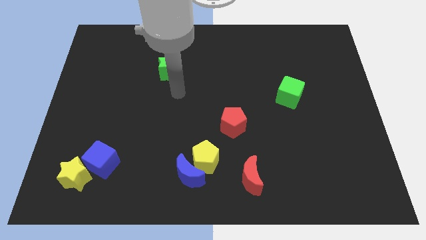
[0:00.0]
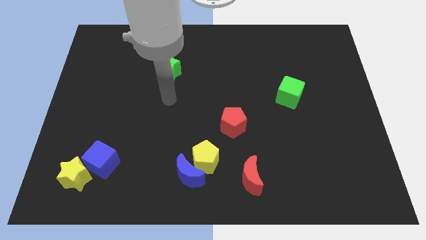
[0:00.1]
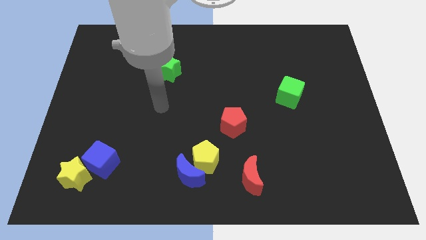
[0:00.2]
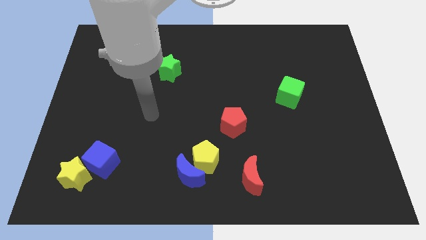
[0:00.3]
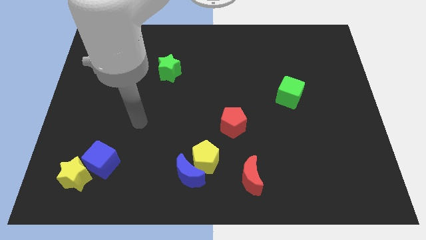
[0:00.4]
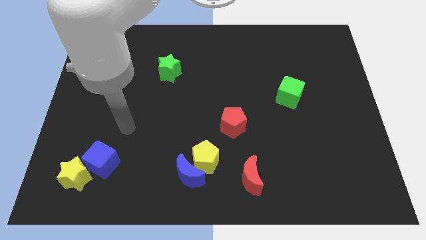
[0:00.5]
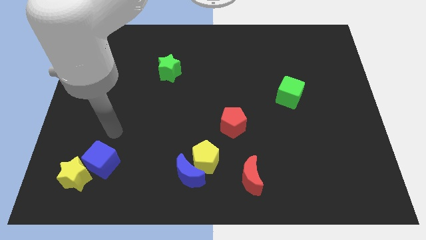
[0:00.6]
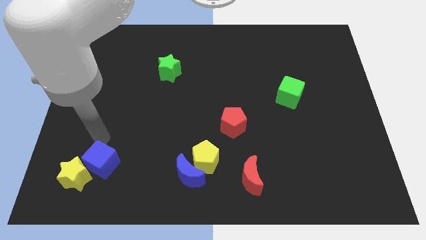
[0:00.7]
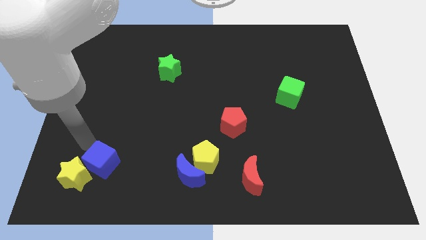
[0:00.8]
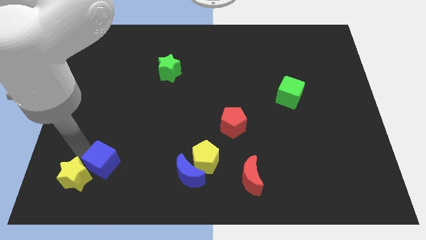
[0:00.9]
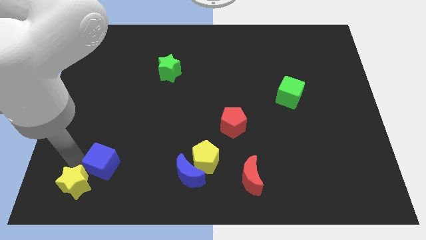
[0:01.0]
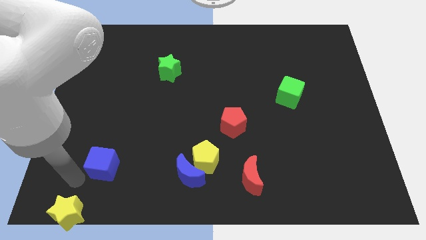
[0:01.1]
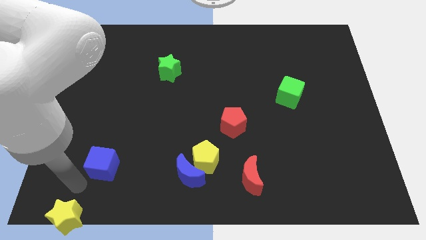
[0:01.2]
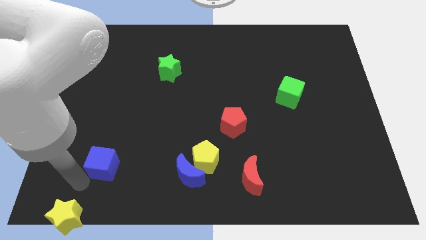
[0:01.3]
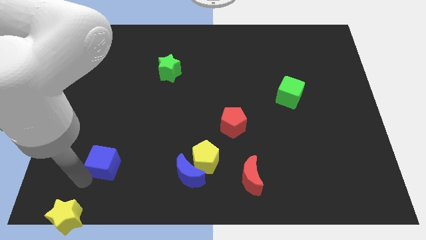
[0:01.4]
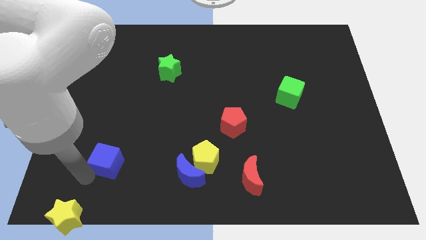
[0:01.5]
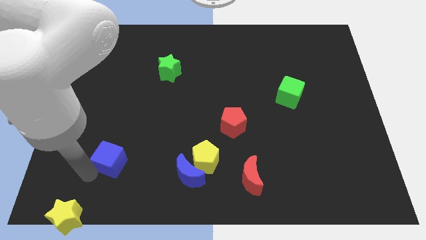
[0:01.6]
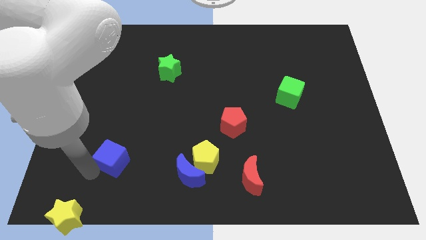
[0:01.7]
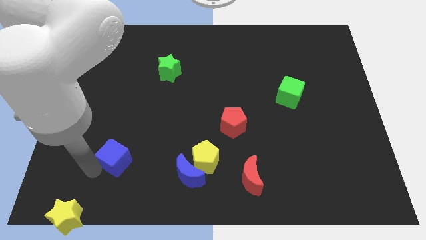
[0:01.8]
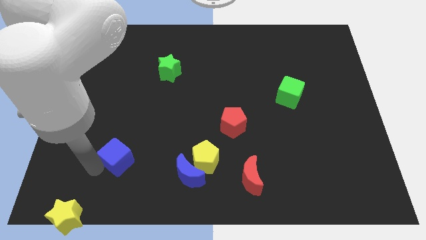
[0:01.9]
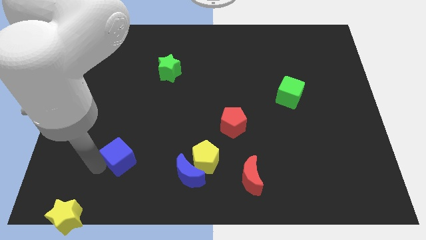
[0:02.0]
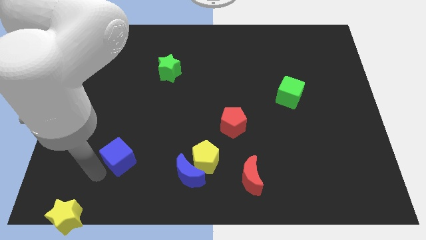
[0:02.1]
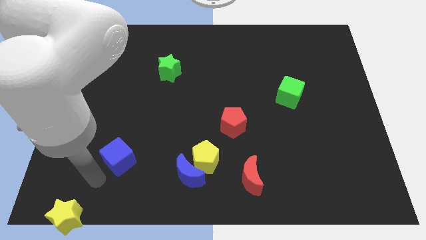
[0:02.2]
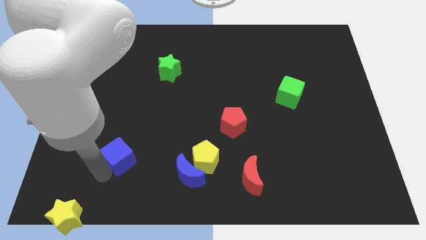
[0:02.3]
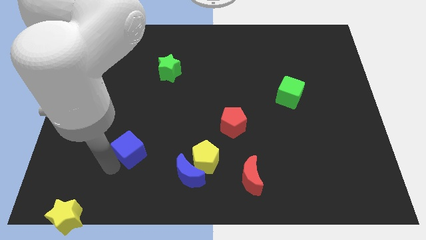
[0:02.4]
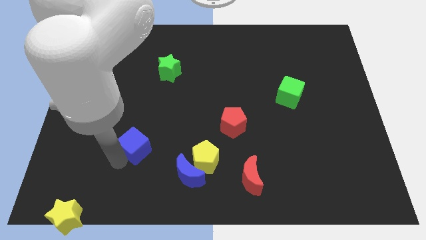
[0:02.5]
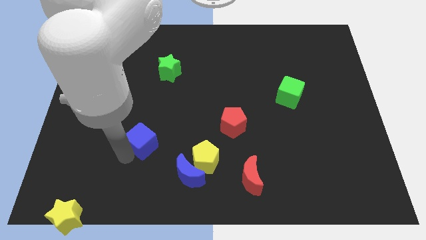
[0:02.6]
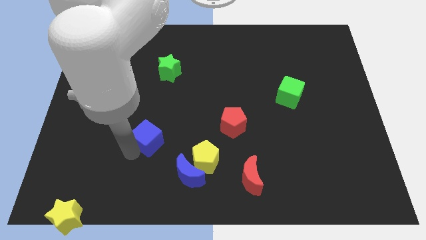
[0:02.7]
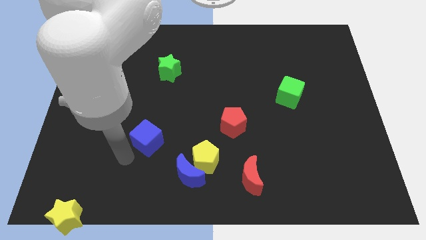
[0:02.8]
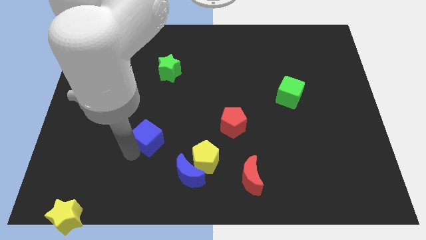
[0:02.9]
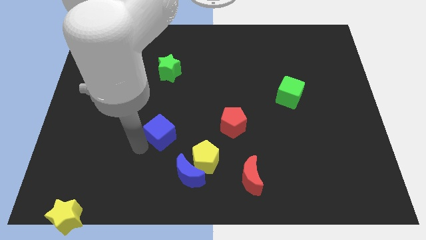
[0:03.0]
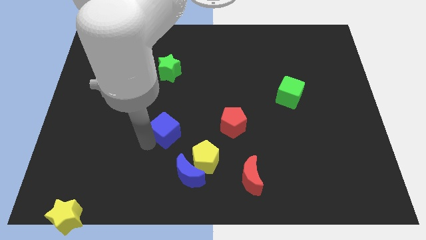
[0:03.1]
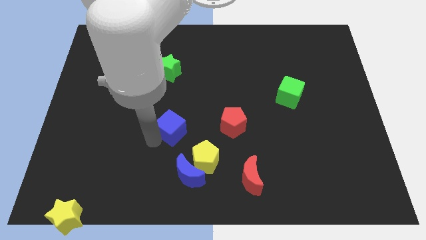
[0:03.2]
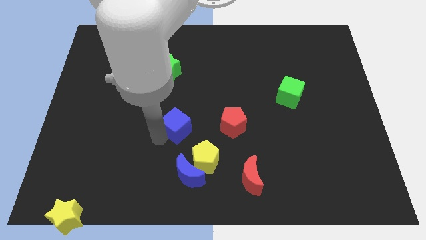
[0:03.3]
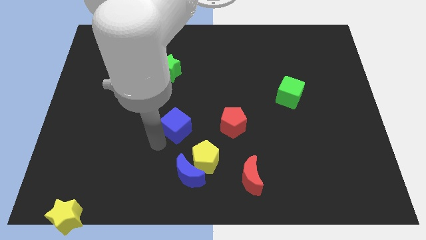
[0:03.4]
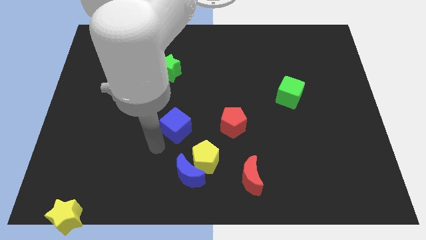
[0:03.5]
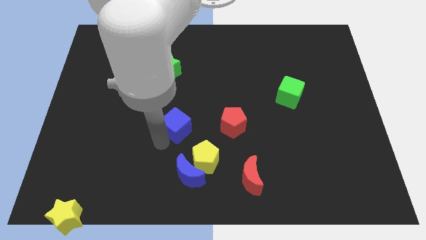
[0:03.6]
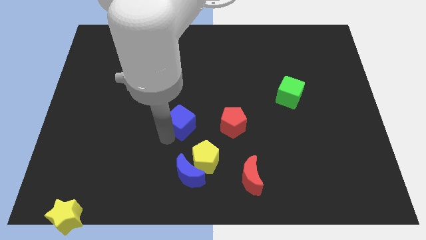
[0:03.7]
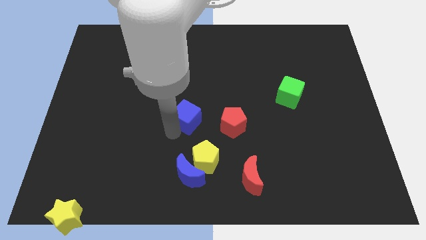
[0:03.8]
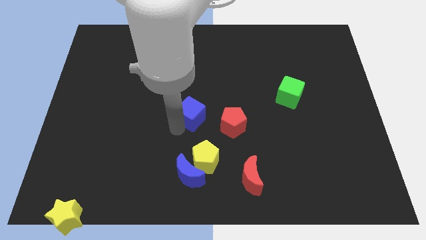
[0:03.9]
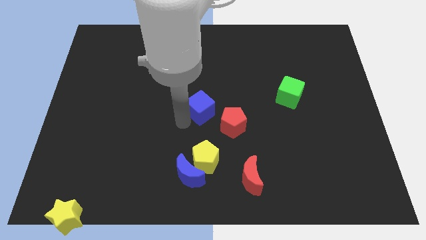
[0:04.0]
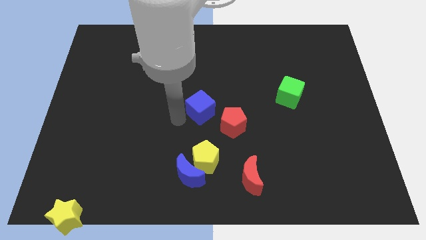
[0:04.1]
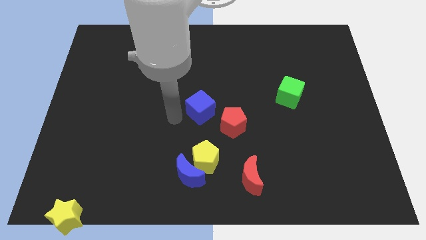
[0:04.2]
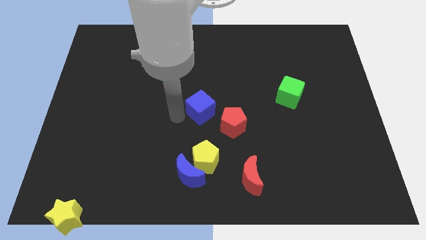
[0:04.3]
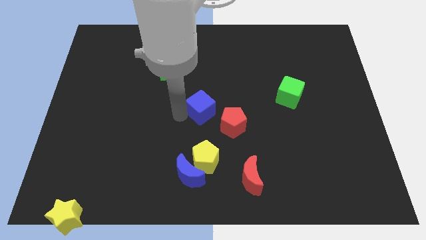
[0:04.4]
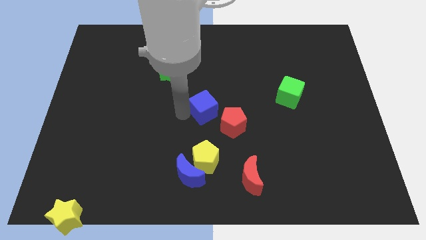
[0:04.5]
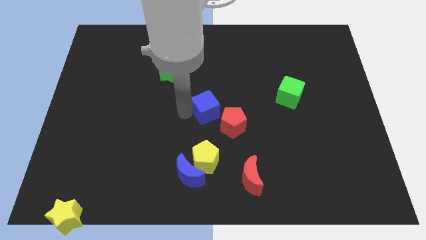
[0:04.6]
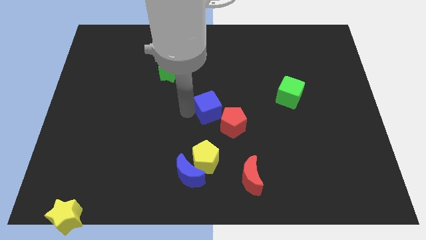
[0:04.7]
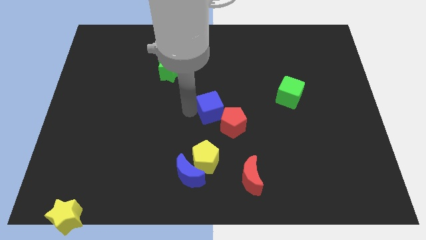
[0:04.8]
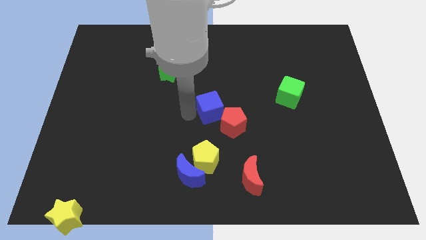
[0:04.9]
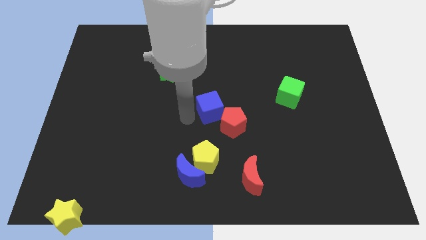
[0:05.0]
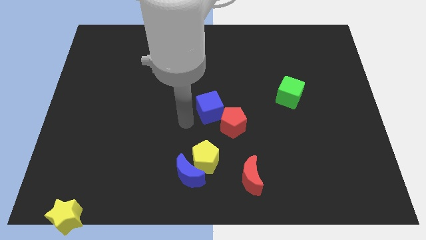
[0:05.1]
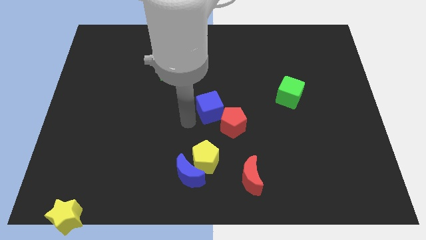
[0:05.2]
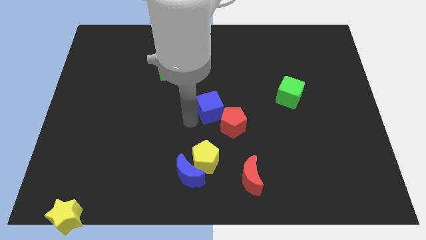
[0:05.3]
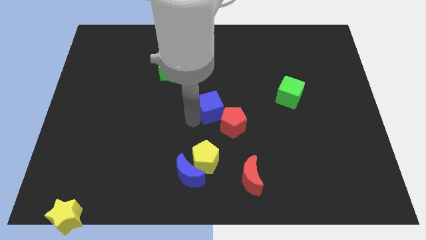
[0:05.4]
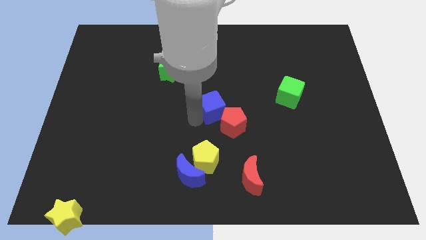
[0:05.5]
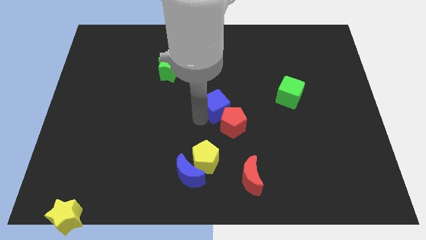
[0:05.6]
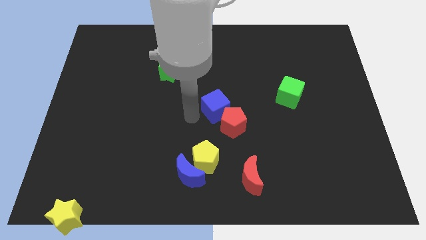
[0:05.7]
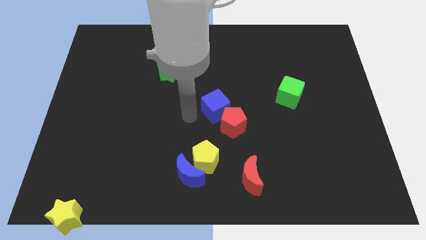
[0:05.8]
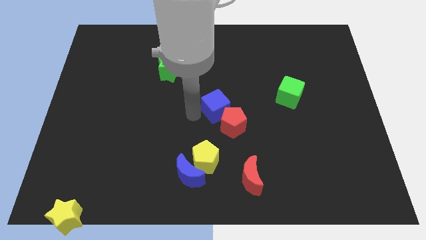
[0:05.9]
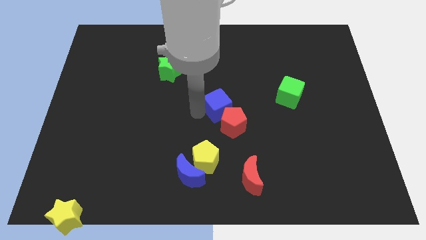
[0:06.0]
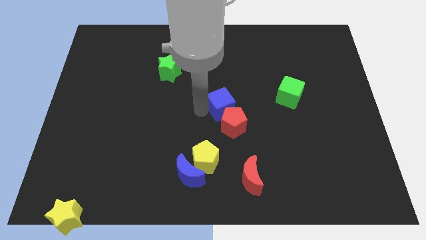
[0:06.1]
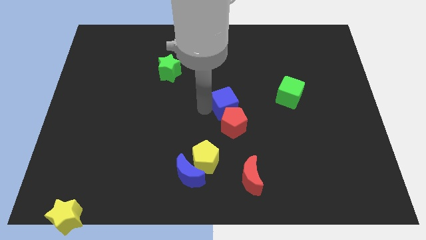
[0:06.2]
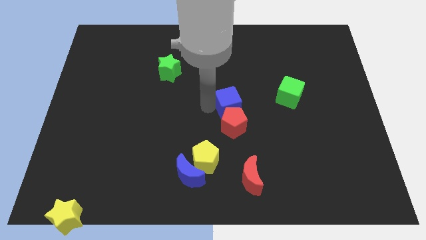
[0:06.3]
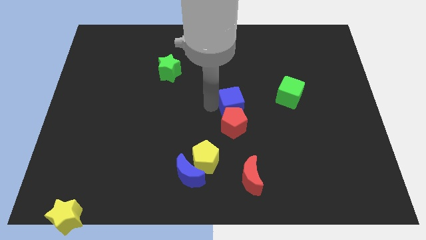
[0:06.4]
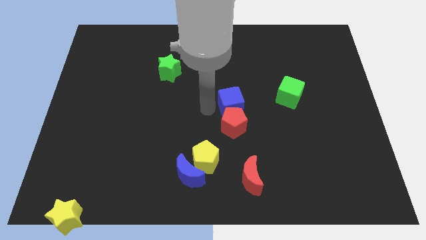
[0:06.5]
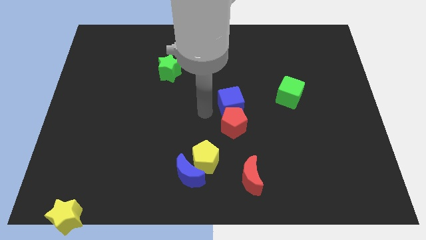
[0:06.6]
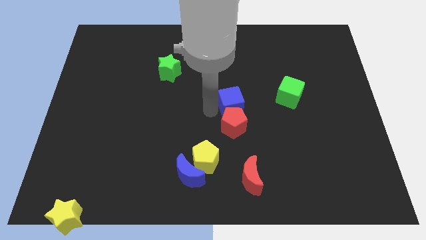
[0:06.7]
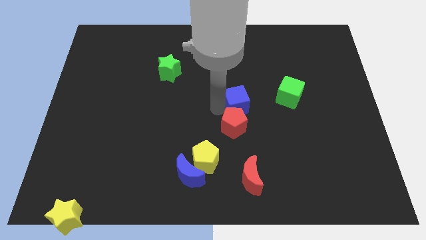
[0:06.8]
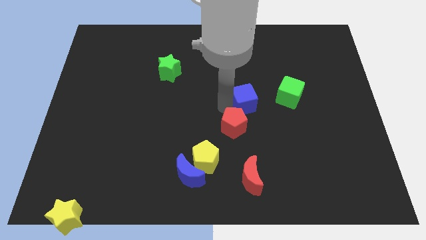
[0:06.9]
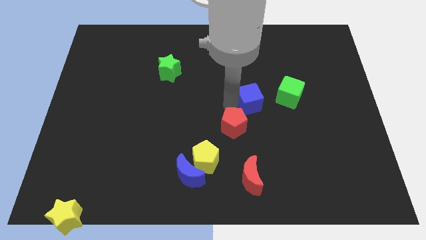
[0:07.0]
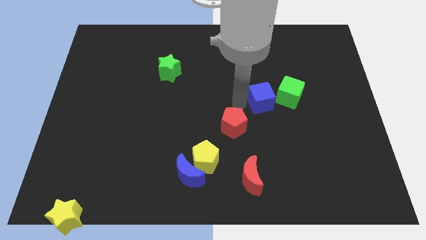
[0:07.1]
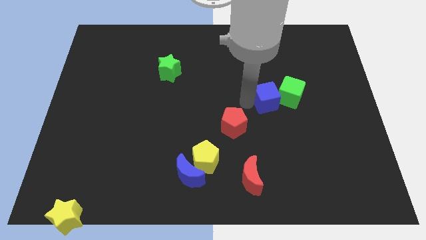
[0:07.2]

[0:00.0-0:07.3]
slide the blue cube towards the green cube
